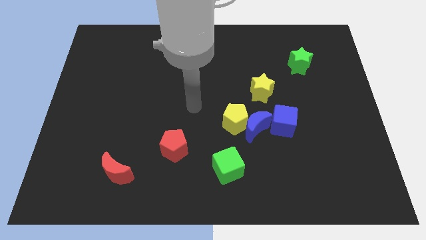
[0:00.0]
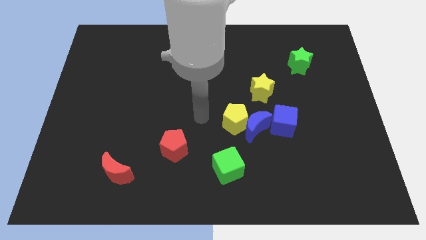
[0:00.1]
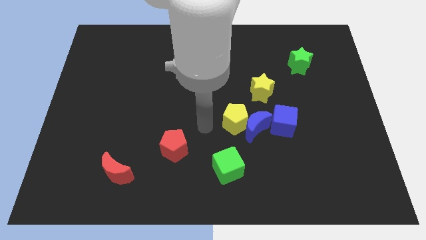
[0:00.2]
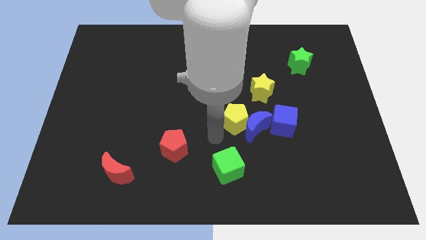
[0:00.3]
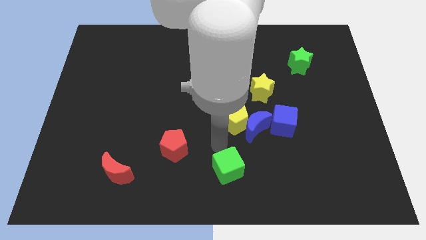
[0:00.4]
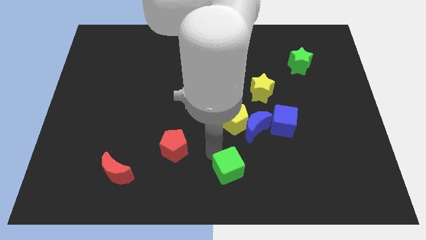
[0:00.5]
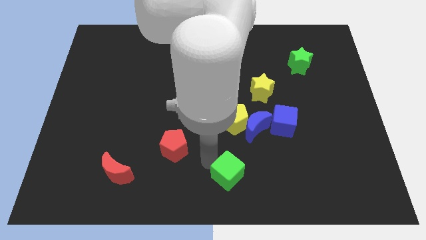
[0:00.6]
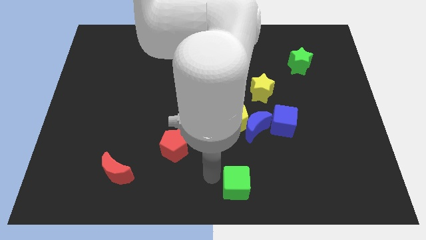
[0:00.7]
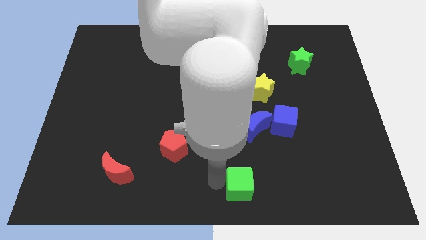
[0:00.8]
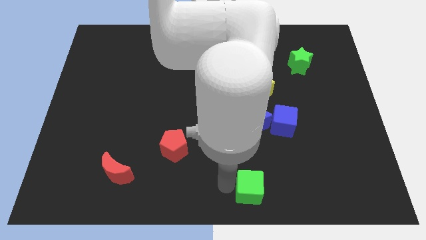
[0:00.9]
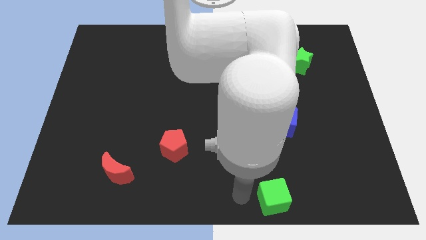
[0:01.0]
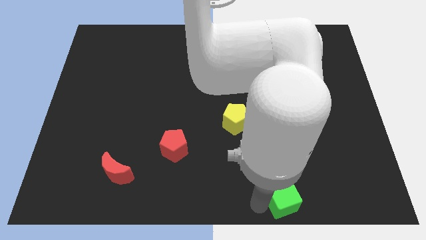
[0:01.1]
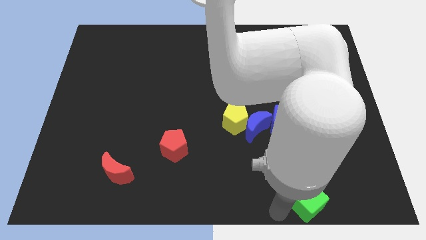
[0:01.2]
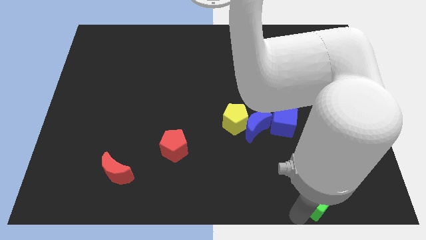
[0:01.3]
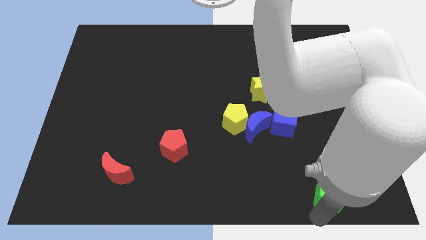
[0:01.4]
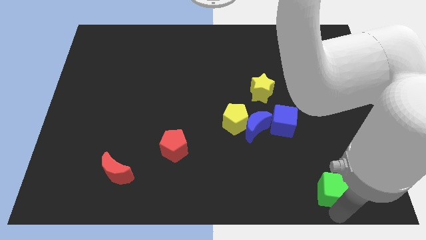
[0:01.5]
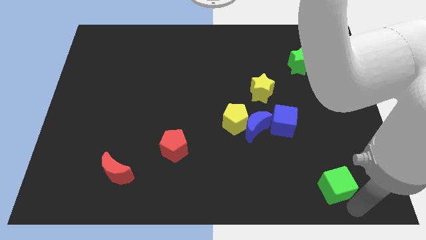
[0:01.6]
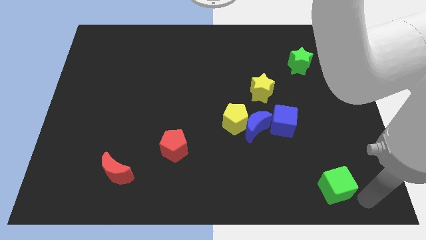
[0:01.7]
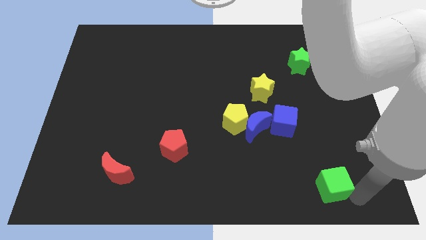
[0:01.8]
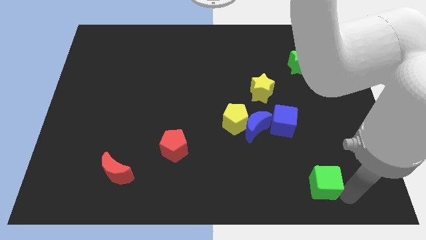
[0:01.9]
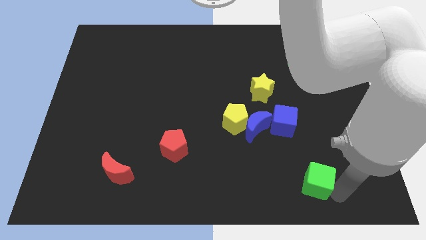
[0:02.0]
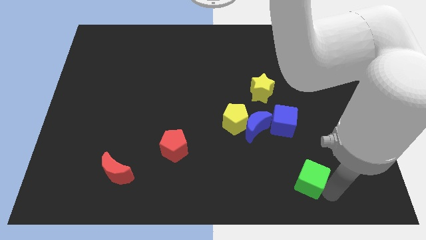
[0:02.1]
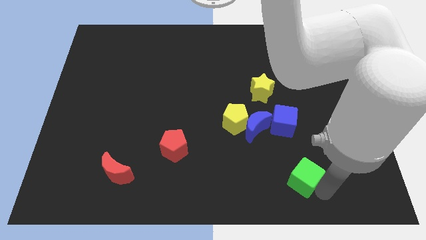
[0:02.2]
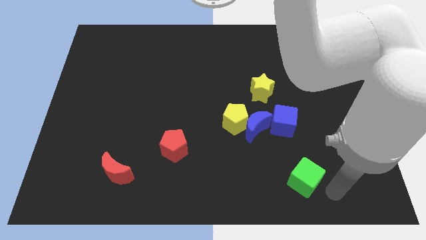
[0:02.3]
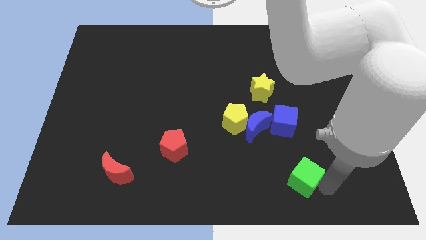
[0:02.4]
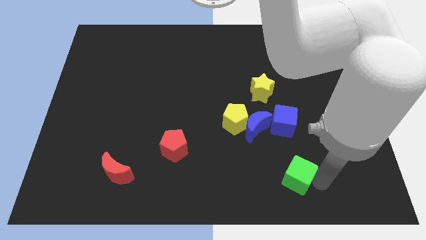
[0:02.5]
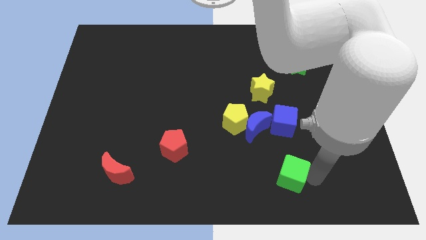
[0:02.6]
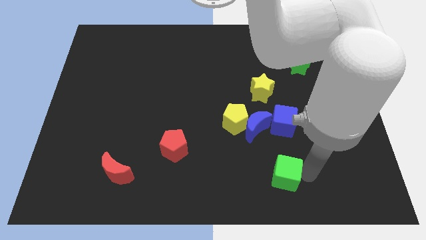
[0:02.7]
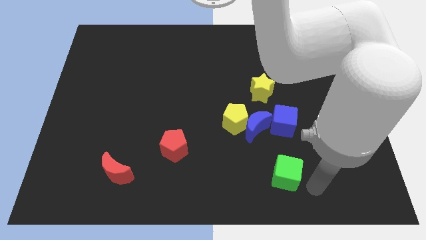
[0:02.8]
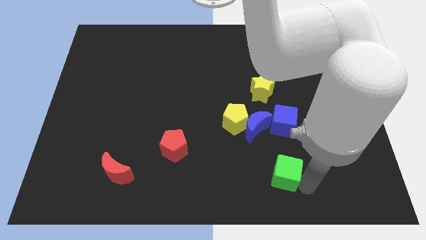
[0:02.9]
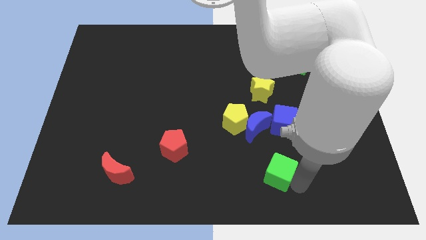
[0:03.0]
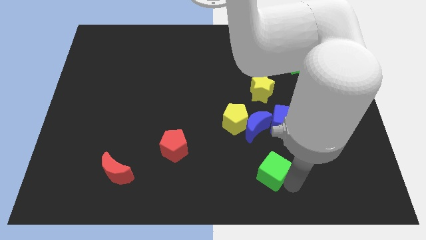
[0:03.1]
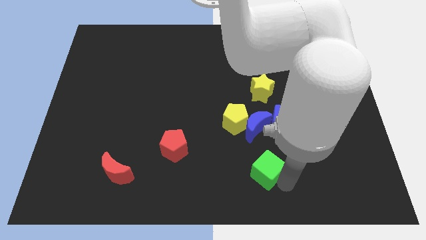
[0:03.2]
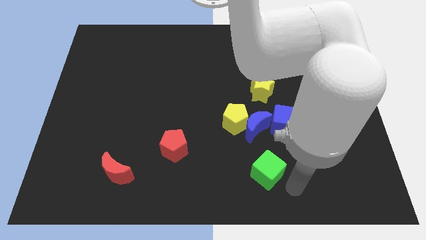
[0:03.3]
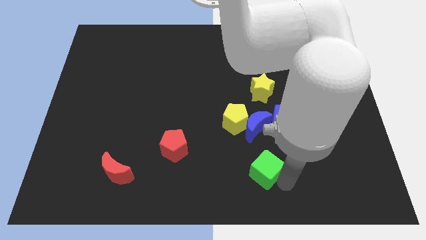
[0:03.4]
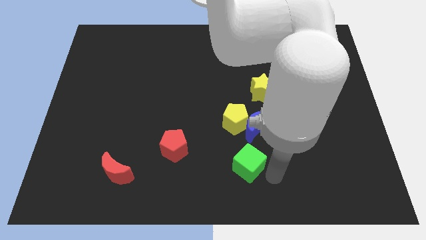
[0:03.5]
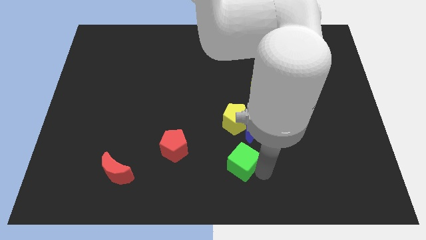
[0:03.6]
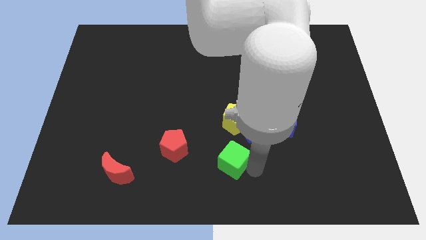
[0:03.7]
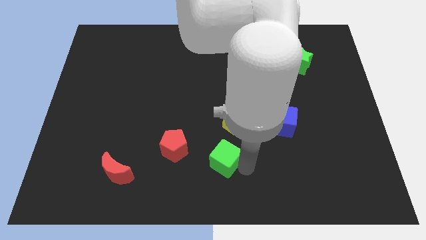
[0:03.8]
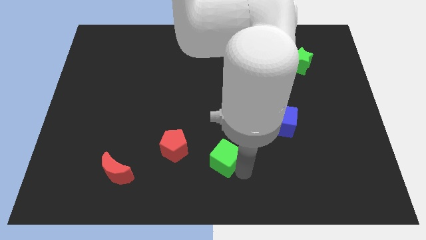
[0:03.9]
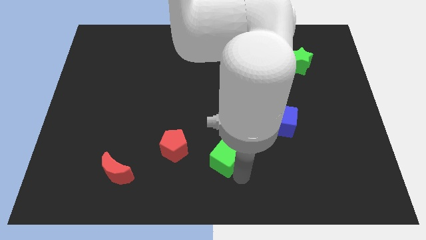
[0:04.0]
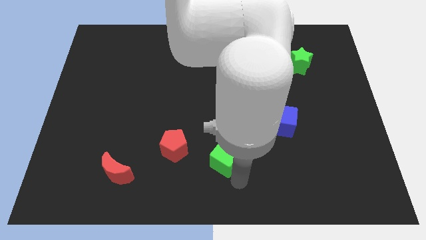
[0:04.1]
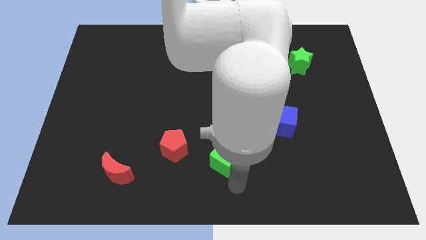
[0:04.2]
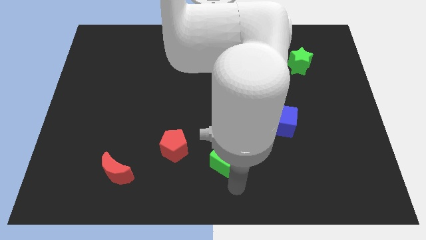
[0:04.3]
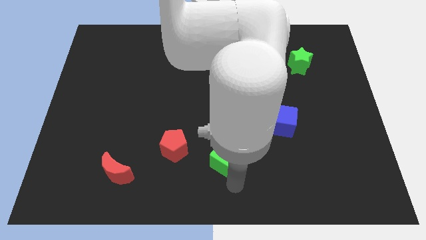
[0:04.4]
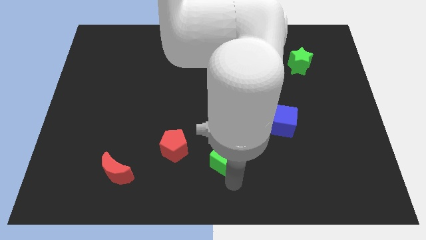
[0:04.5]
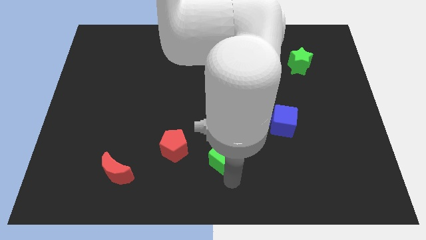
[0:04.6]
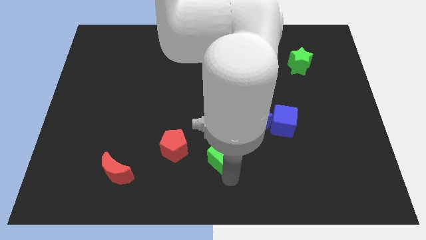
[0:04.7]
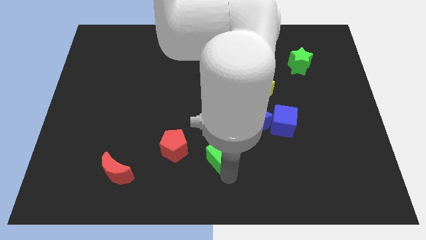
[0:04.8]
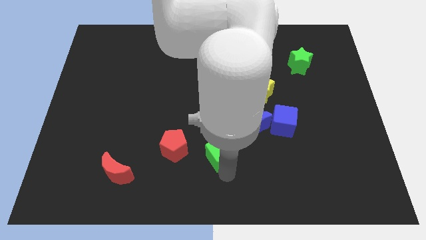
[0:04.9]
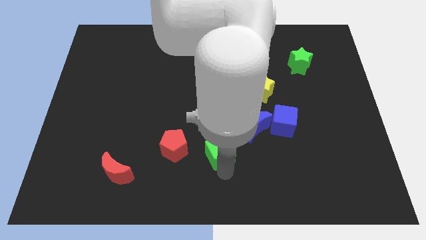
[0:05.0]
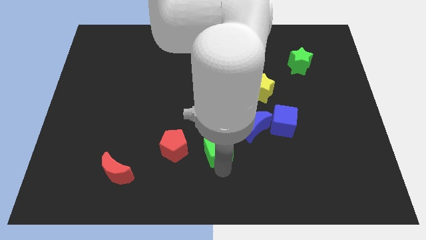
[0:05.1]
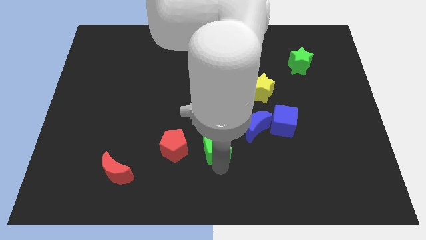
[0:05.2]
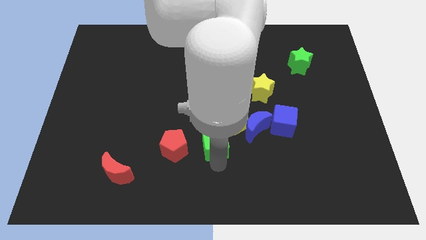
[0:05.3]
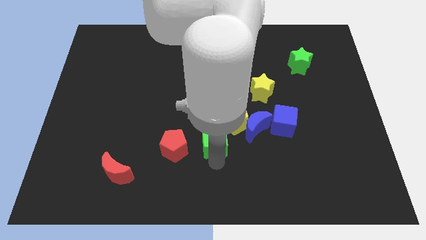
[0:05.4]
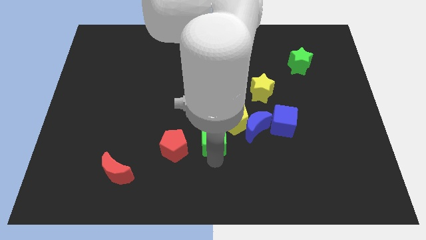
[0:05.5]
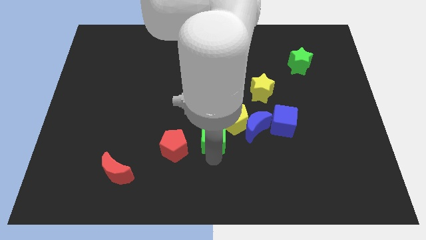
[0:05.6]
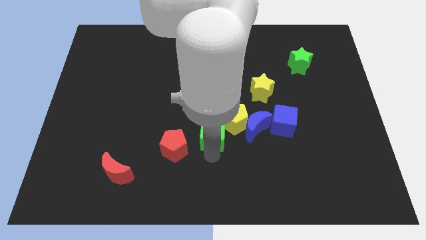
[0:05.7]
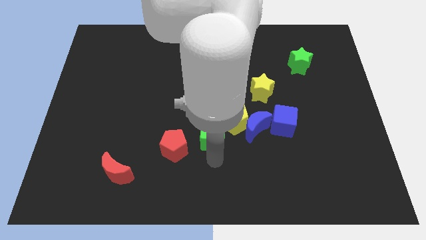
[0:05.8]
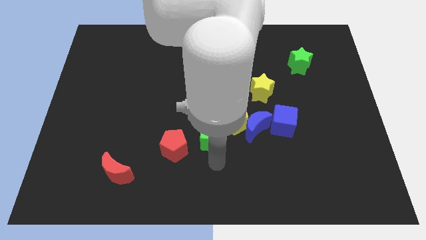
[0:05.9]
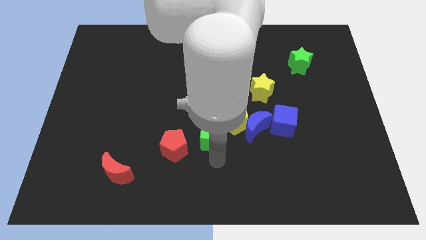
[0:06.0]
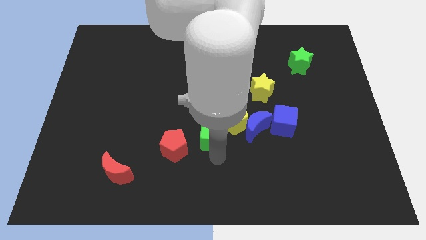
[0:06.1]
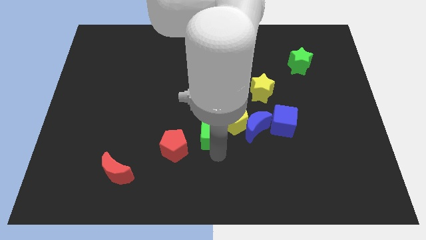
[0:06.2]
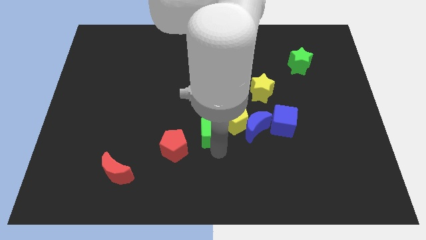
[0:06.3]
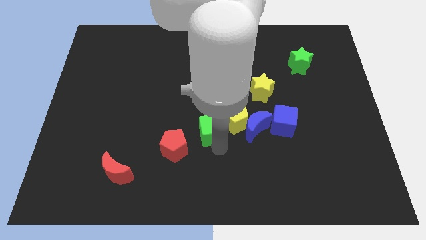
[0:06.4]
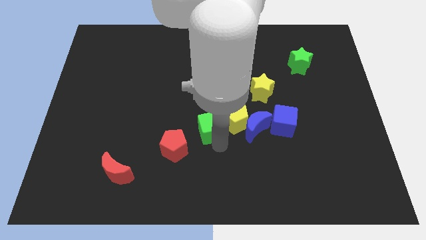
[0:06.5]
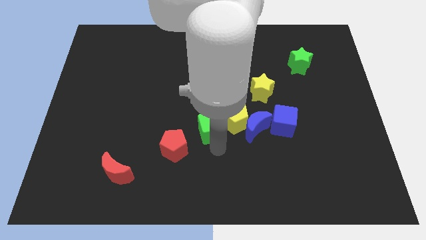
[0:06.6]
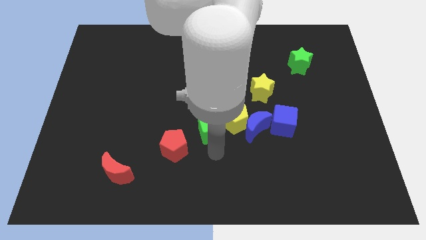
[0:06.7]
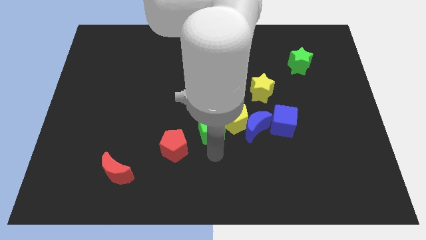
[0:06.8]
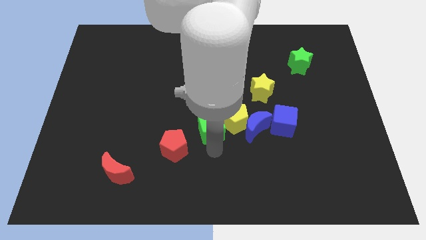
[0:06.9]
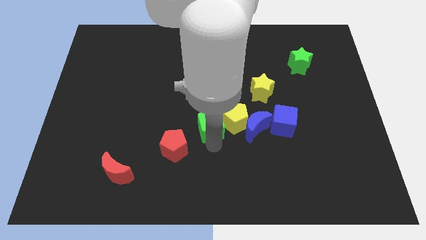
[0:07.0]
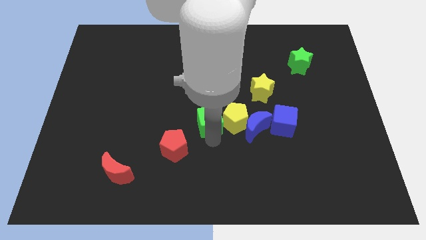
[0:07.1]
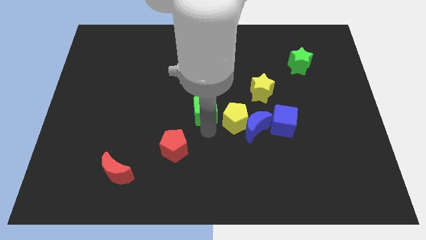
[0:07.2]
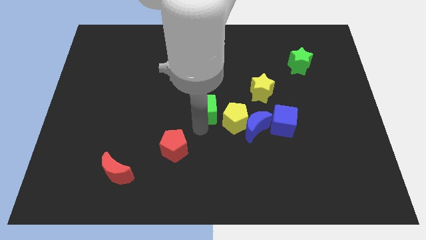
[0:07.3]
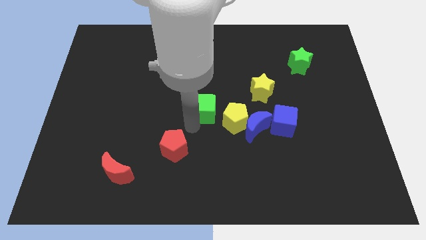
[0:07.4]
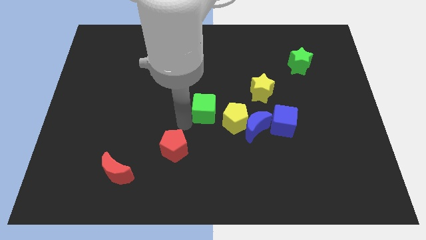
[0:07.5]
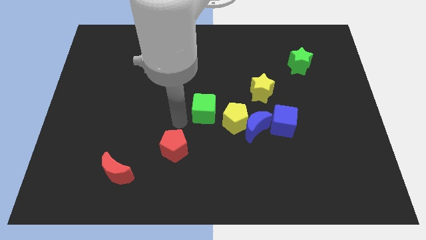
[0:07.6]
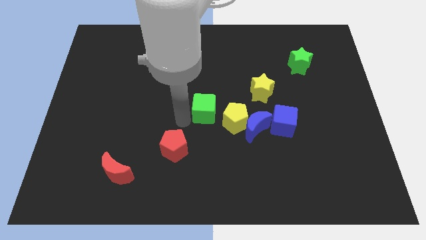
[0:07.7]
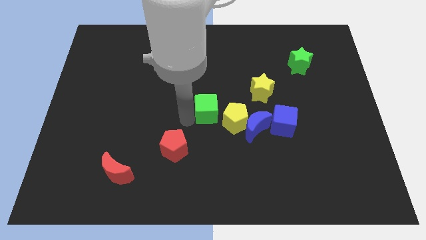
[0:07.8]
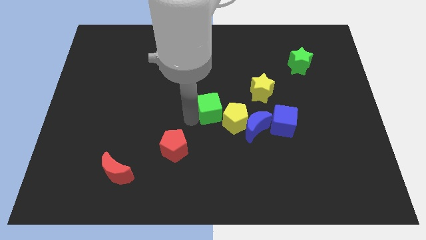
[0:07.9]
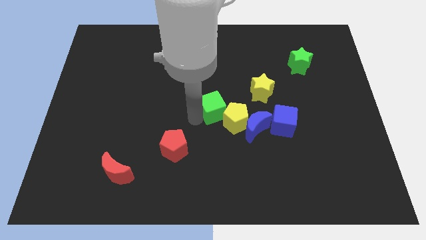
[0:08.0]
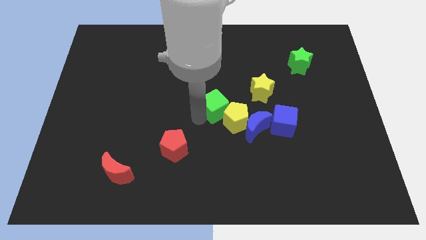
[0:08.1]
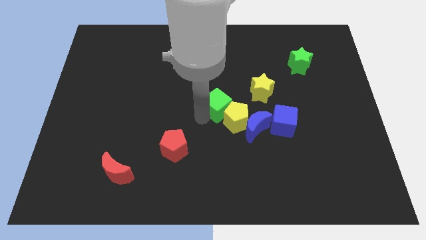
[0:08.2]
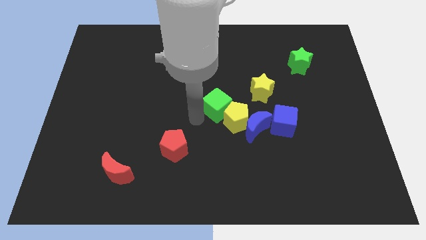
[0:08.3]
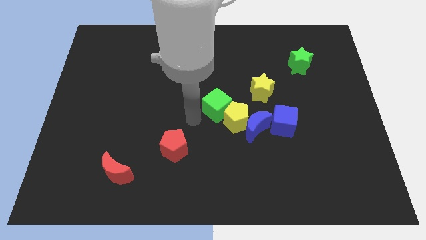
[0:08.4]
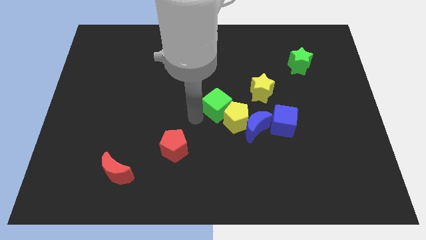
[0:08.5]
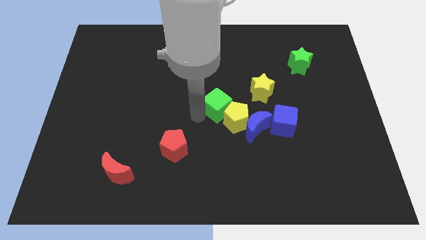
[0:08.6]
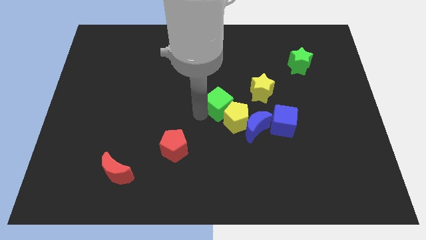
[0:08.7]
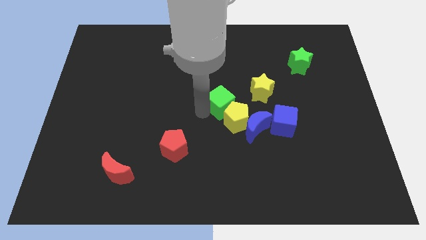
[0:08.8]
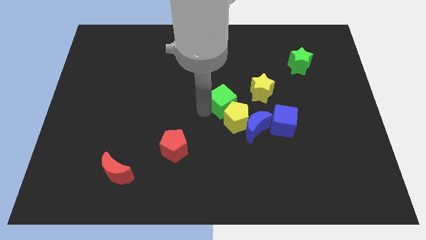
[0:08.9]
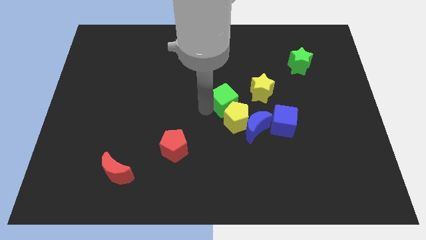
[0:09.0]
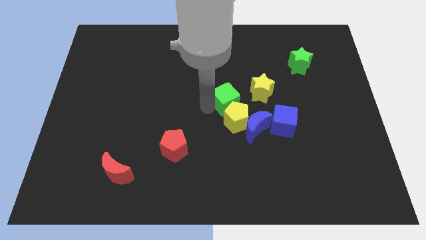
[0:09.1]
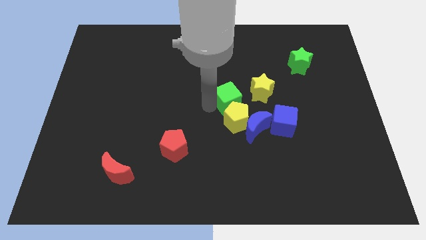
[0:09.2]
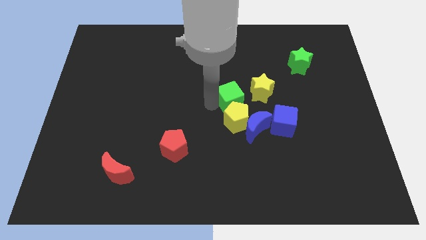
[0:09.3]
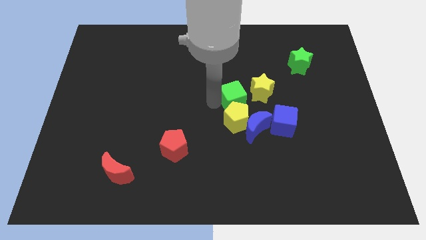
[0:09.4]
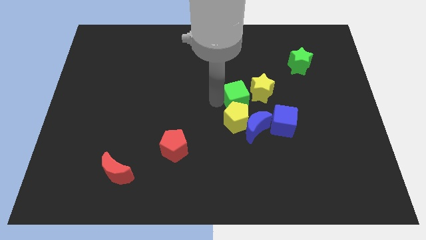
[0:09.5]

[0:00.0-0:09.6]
slide the green cube to the top left side of the blue cube
